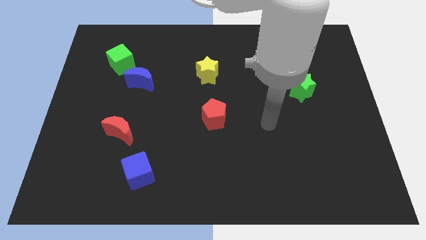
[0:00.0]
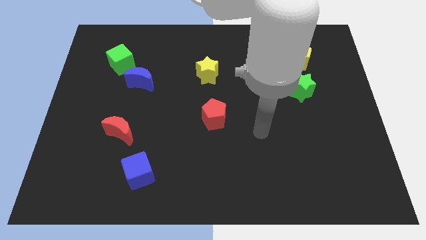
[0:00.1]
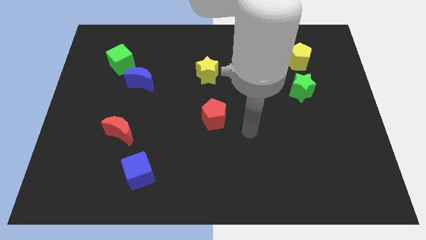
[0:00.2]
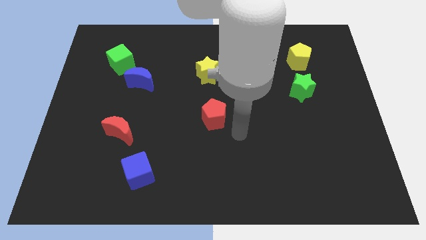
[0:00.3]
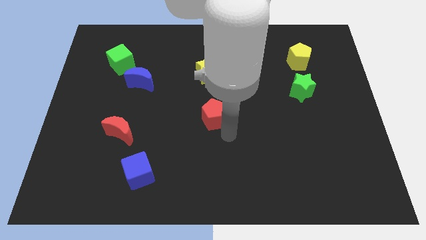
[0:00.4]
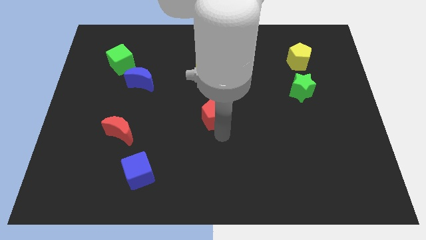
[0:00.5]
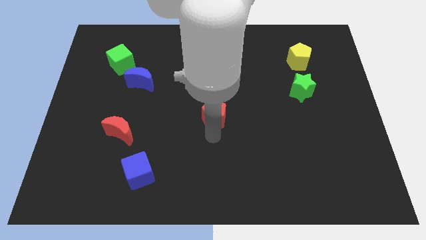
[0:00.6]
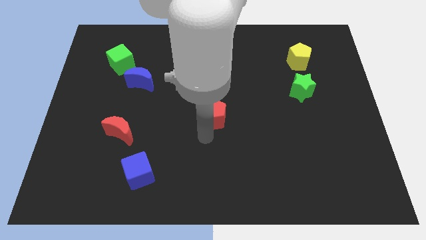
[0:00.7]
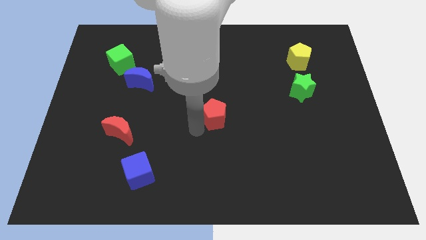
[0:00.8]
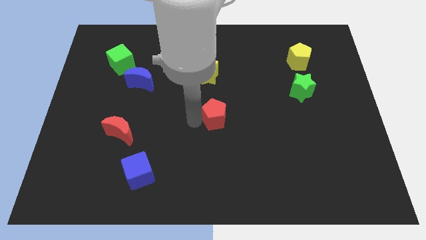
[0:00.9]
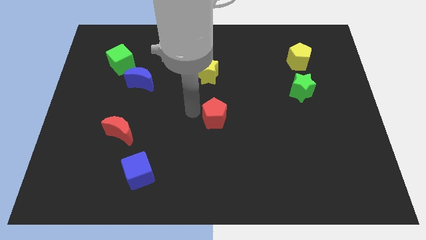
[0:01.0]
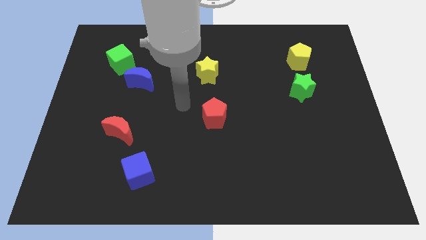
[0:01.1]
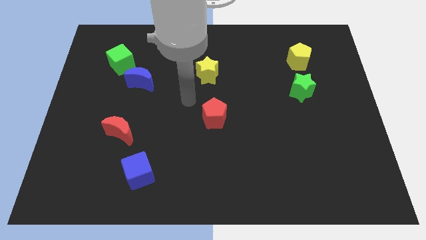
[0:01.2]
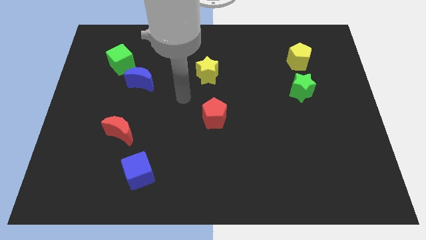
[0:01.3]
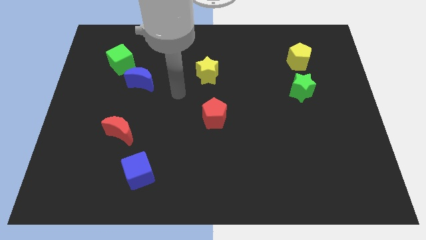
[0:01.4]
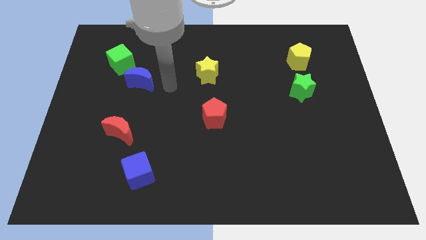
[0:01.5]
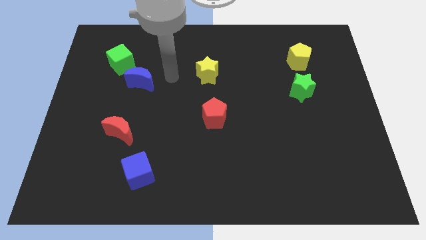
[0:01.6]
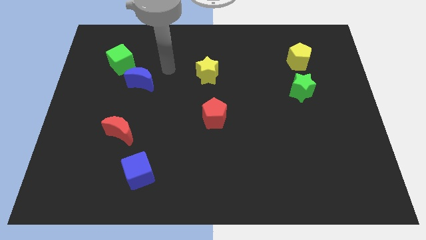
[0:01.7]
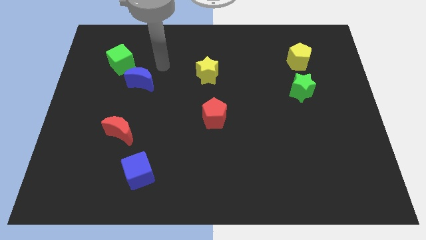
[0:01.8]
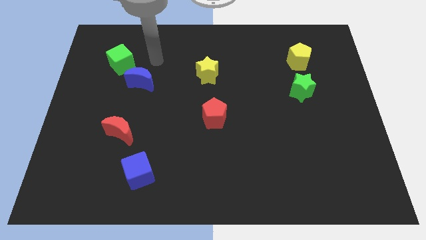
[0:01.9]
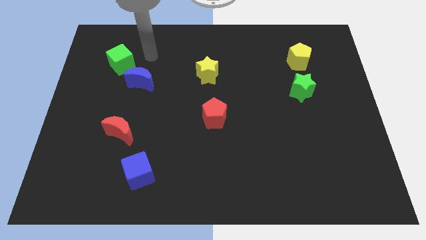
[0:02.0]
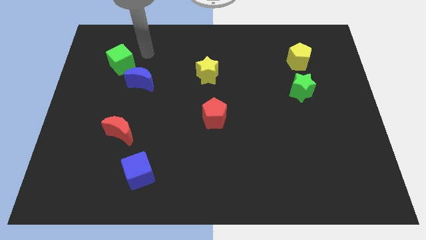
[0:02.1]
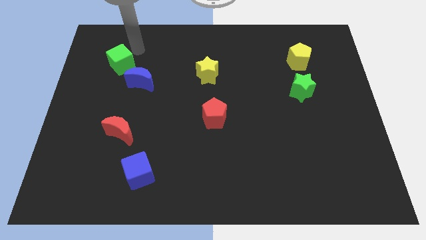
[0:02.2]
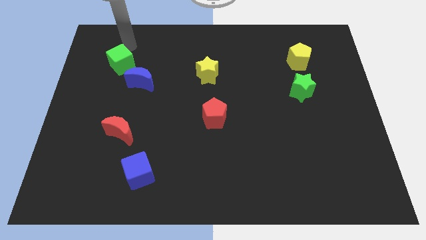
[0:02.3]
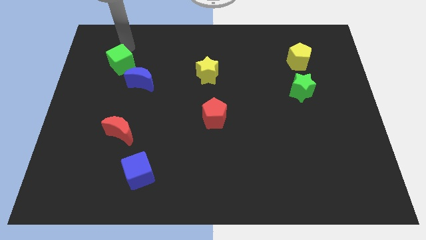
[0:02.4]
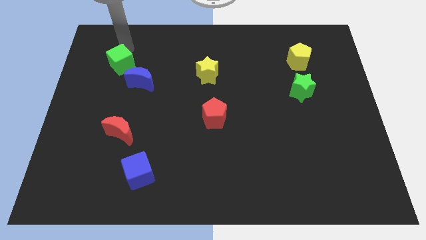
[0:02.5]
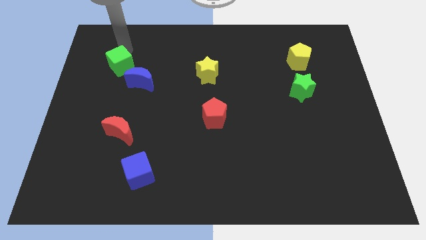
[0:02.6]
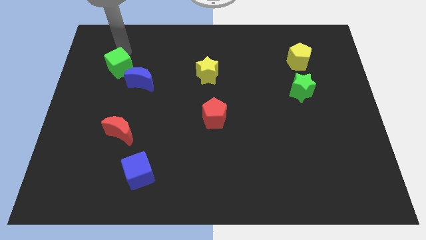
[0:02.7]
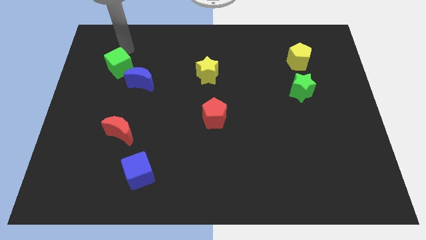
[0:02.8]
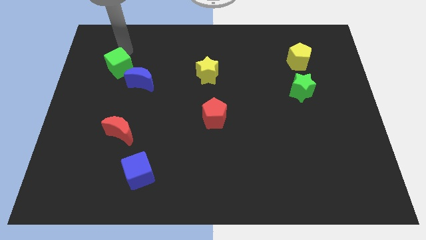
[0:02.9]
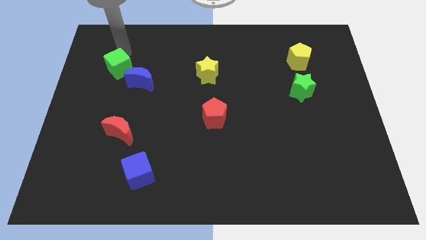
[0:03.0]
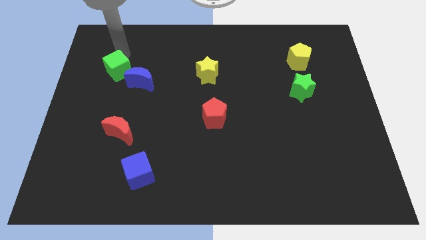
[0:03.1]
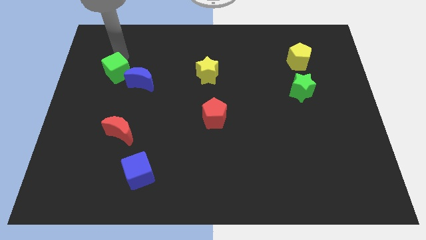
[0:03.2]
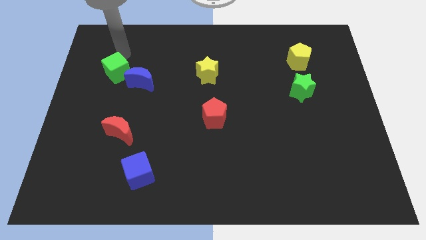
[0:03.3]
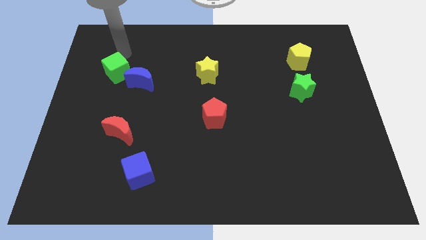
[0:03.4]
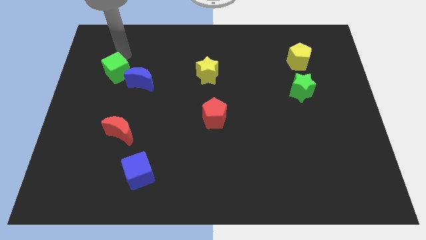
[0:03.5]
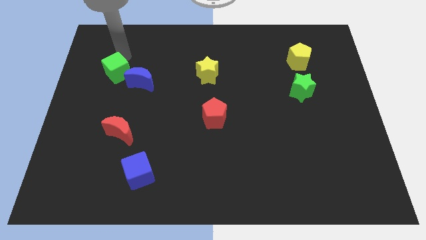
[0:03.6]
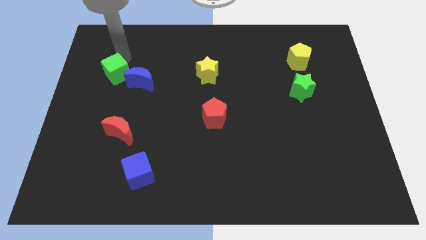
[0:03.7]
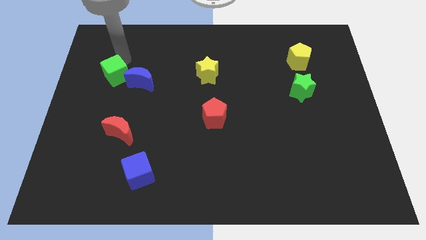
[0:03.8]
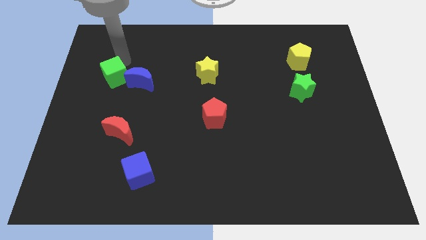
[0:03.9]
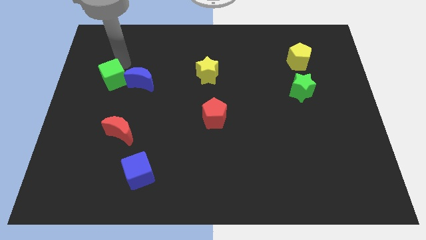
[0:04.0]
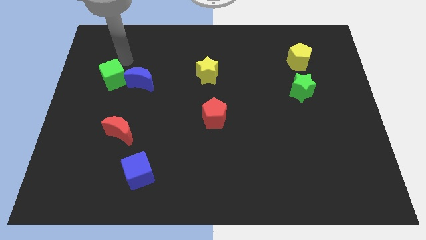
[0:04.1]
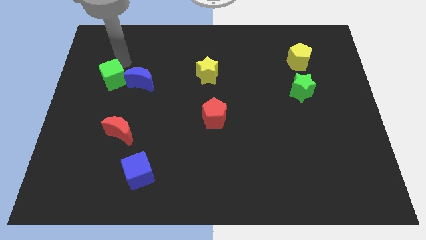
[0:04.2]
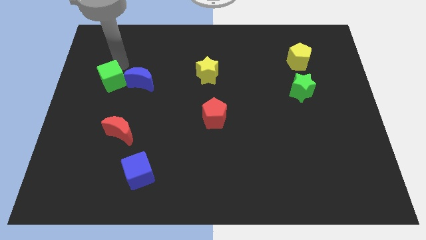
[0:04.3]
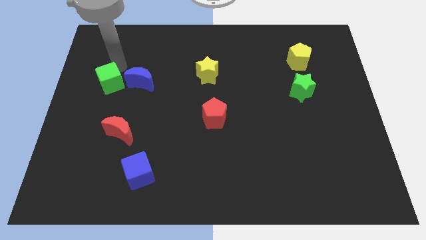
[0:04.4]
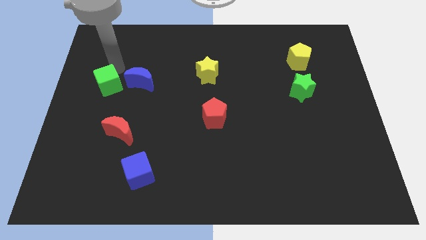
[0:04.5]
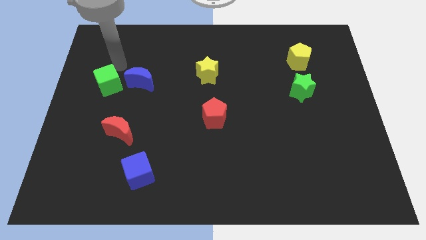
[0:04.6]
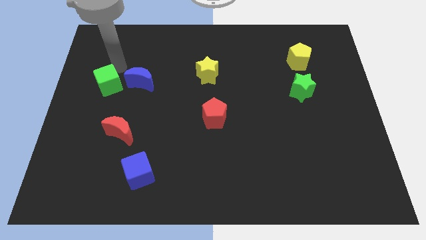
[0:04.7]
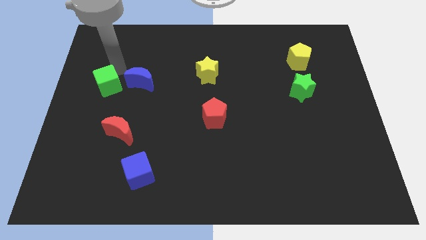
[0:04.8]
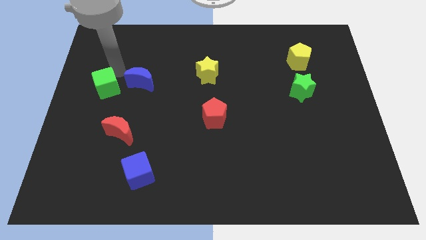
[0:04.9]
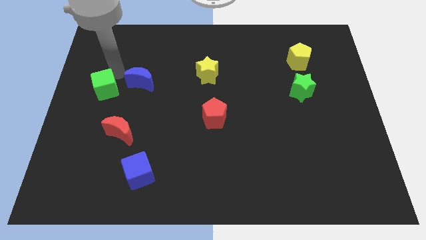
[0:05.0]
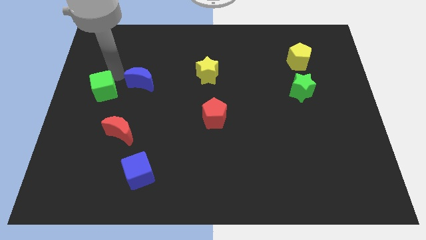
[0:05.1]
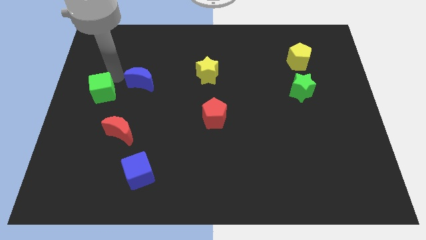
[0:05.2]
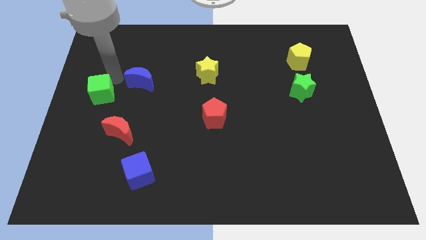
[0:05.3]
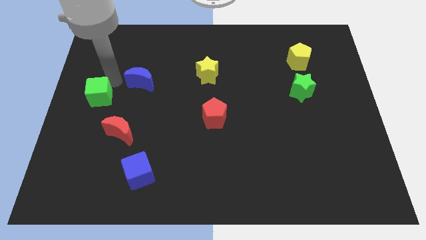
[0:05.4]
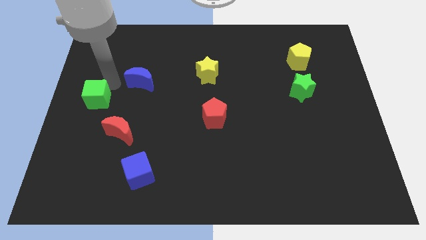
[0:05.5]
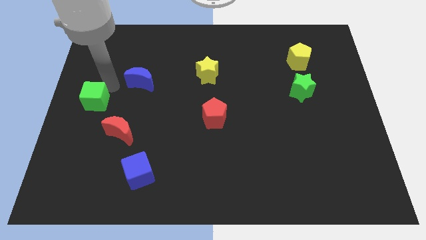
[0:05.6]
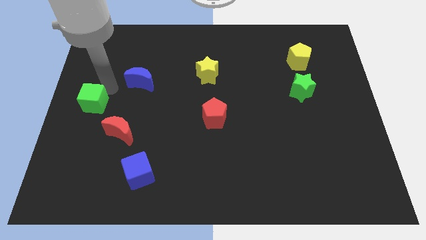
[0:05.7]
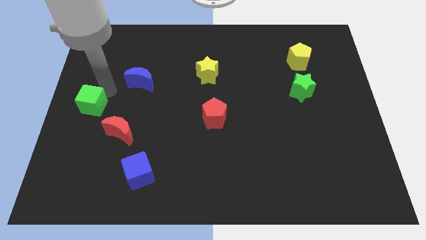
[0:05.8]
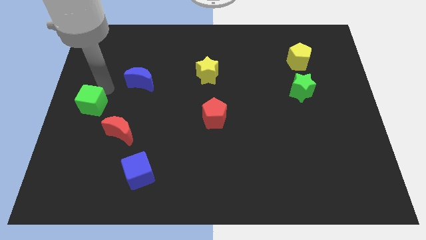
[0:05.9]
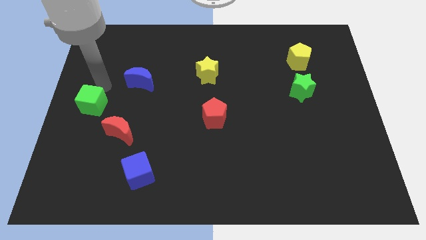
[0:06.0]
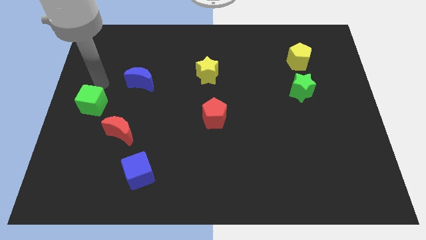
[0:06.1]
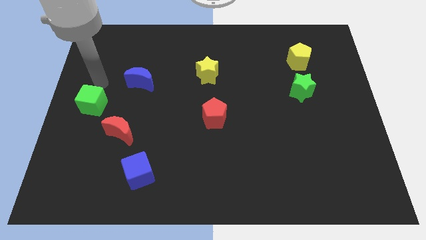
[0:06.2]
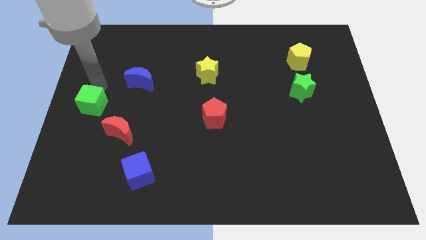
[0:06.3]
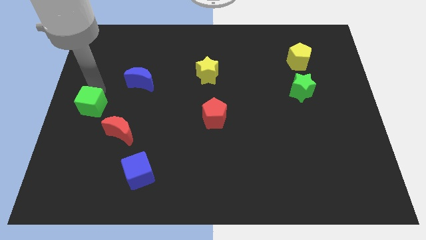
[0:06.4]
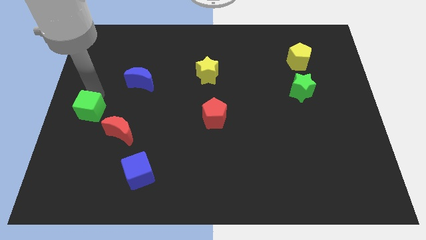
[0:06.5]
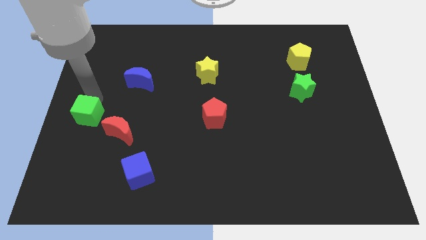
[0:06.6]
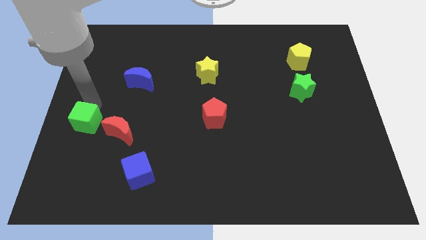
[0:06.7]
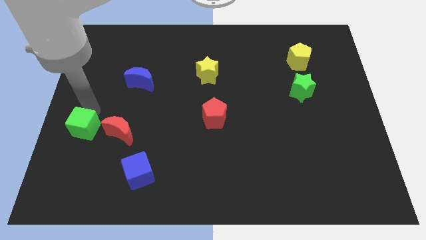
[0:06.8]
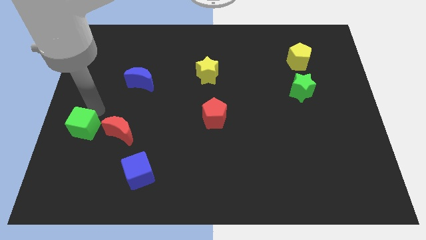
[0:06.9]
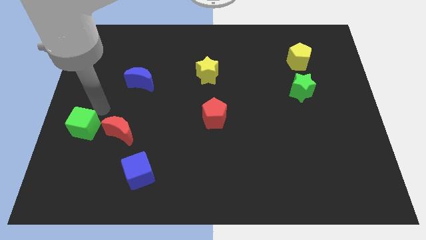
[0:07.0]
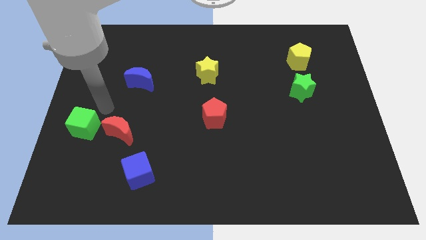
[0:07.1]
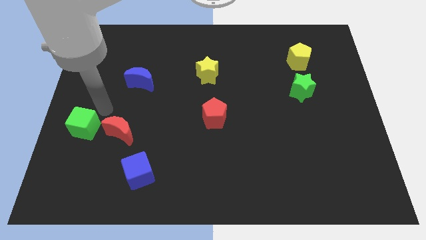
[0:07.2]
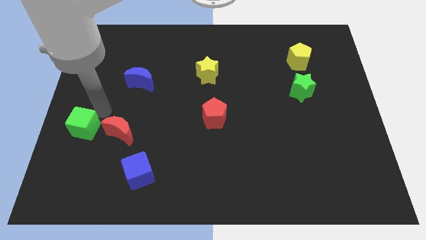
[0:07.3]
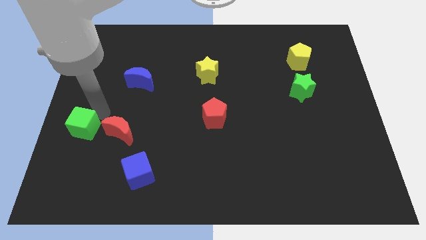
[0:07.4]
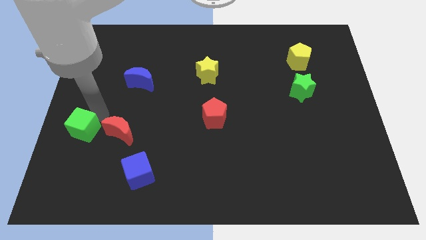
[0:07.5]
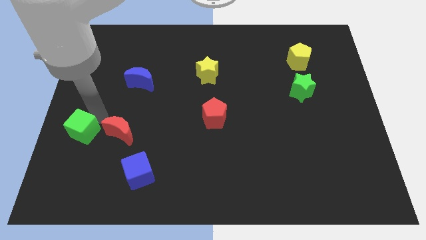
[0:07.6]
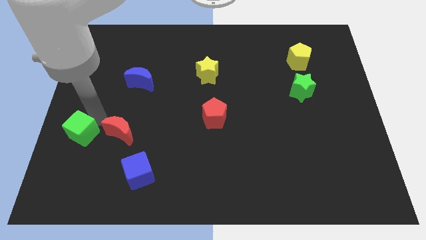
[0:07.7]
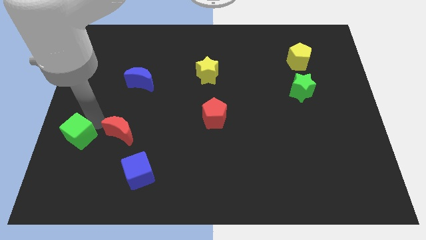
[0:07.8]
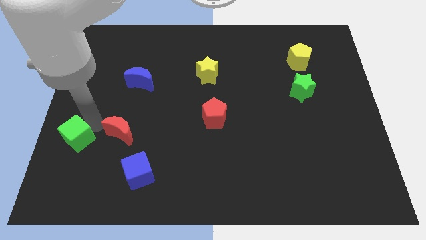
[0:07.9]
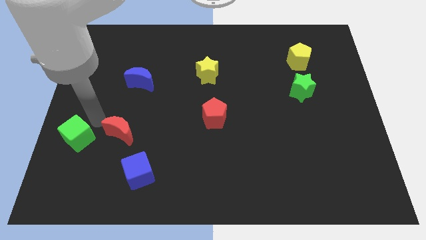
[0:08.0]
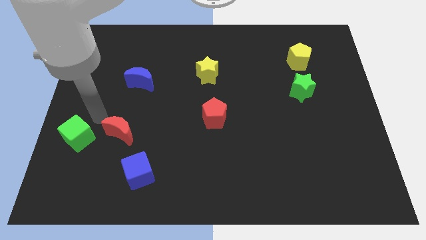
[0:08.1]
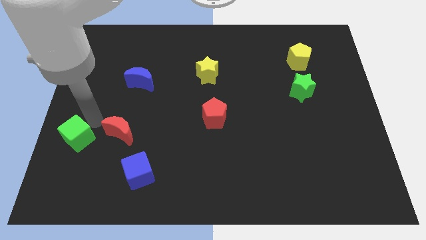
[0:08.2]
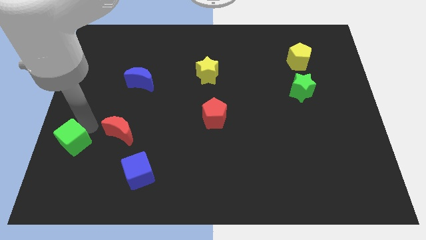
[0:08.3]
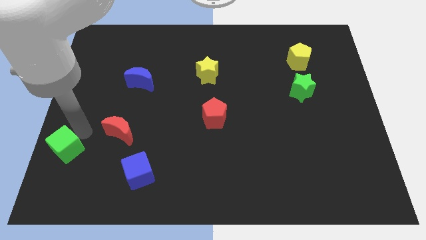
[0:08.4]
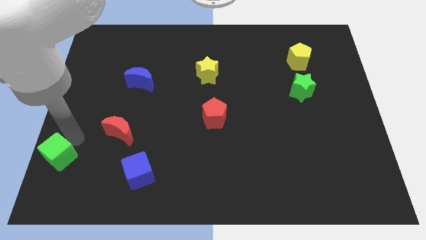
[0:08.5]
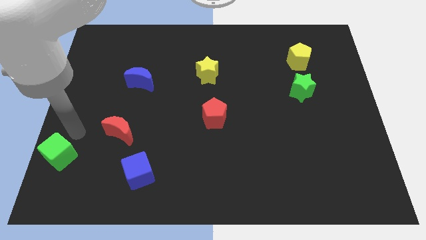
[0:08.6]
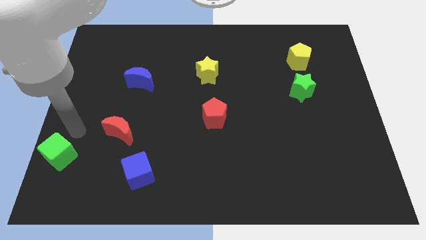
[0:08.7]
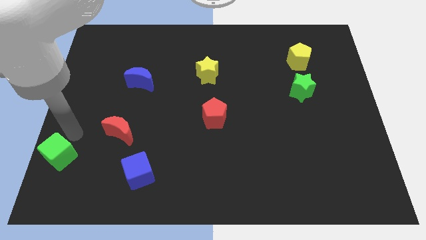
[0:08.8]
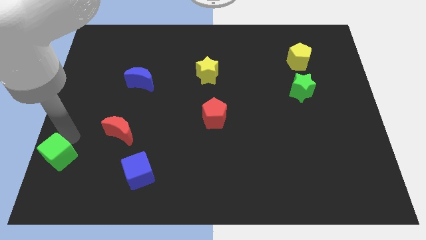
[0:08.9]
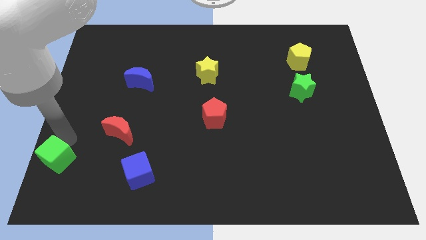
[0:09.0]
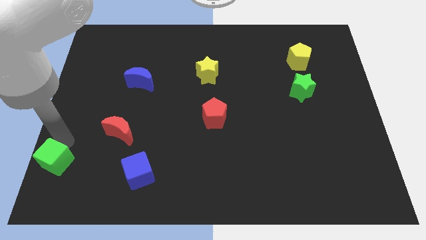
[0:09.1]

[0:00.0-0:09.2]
slide the green cube to the bottom left corner
